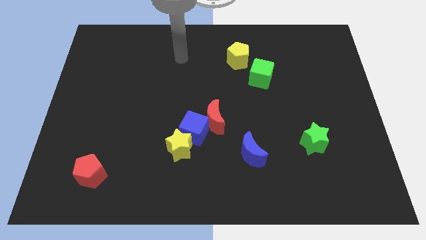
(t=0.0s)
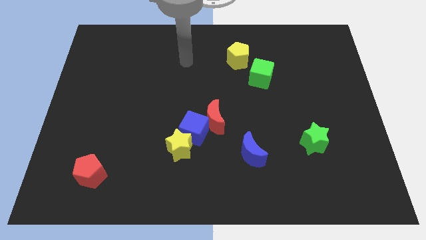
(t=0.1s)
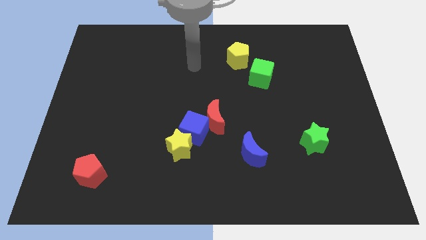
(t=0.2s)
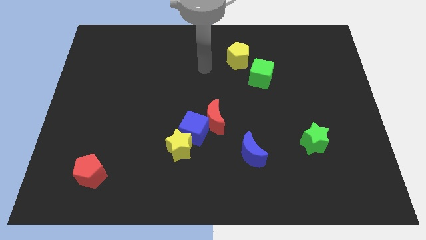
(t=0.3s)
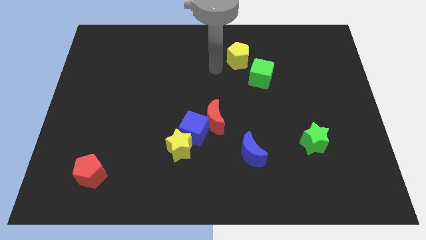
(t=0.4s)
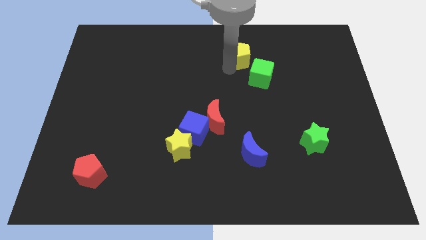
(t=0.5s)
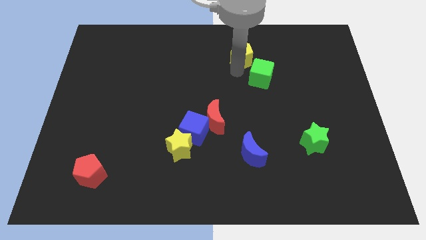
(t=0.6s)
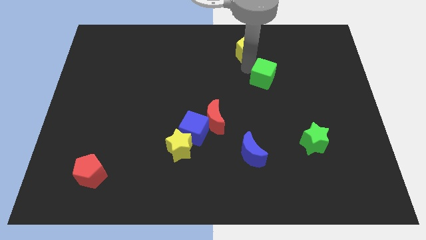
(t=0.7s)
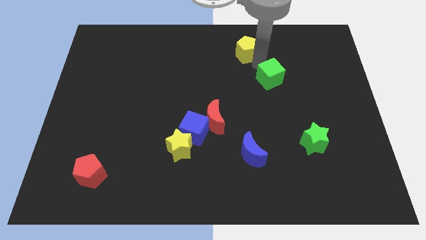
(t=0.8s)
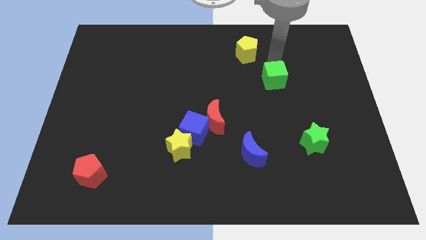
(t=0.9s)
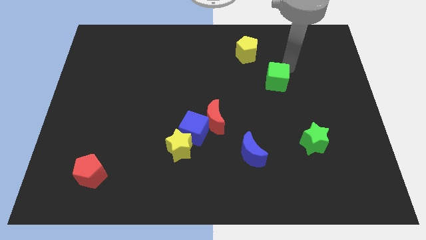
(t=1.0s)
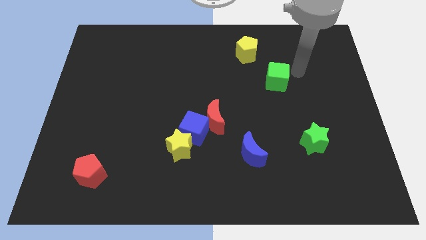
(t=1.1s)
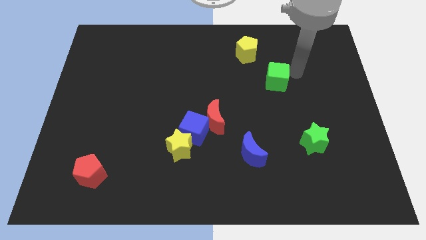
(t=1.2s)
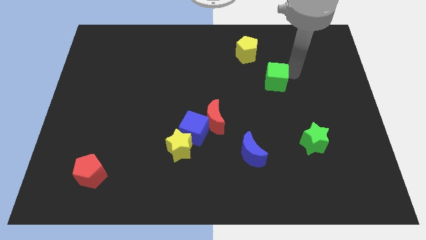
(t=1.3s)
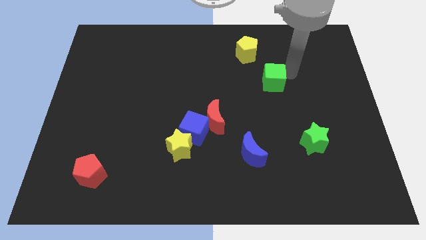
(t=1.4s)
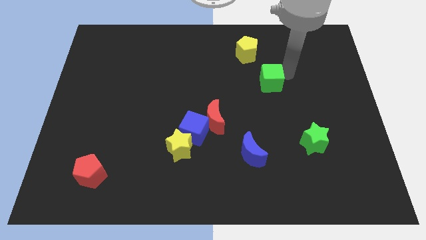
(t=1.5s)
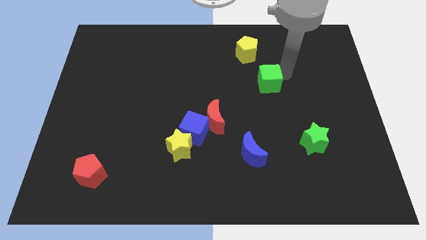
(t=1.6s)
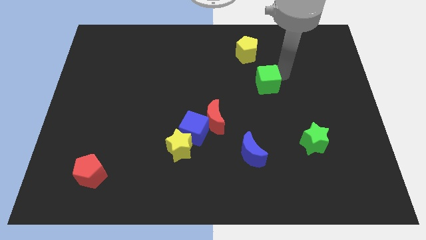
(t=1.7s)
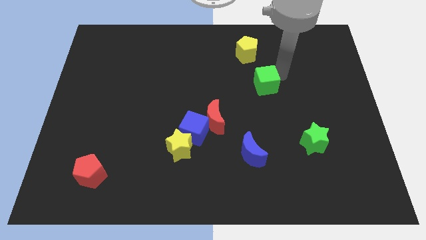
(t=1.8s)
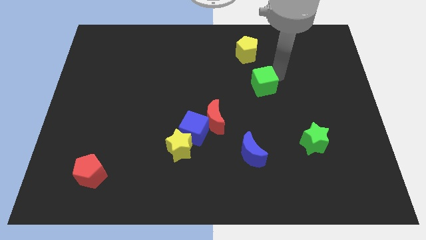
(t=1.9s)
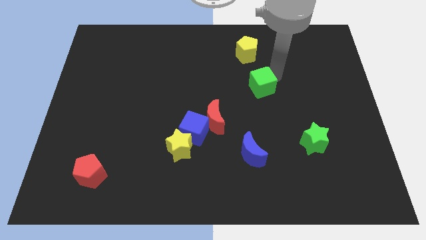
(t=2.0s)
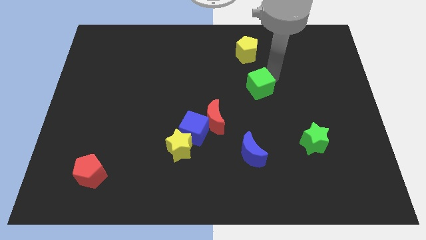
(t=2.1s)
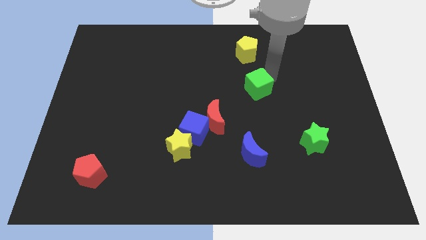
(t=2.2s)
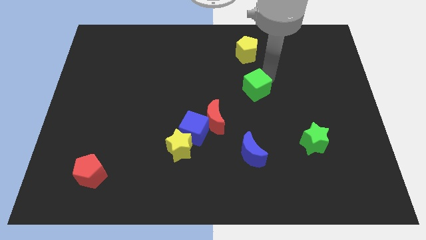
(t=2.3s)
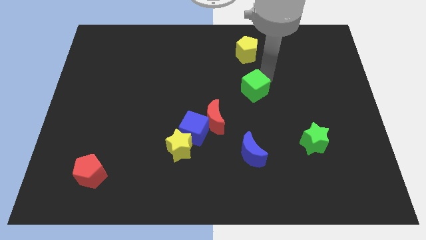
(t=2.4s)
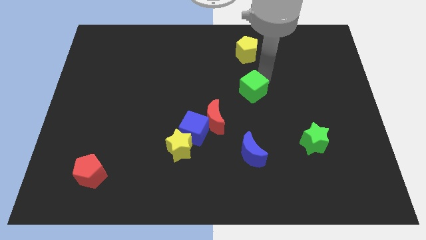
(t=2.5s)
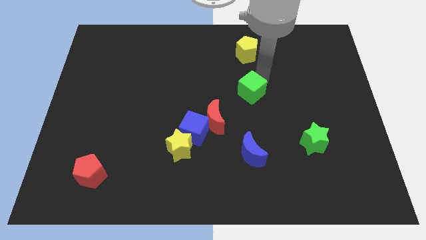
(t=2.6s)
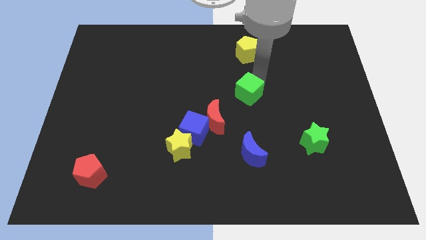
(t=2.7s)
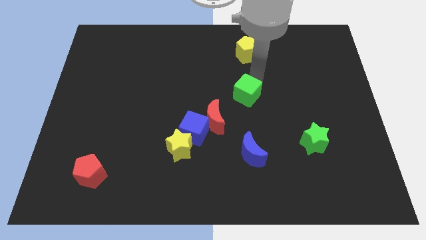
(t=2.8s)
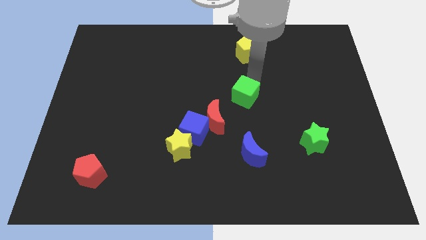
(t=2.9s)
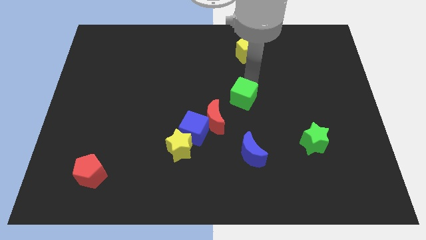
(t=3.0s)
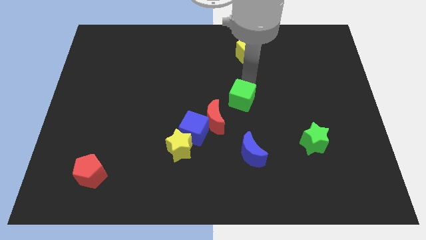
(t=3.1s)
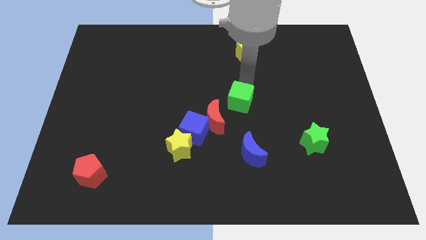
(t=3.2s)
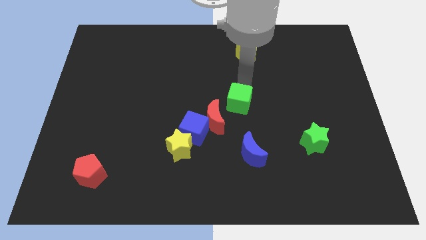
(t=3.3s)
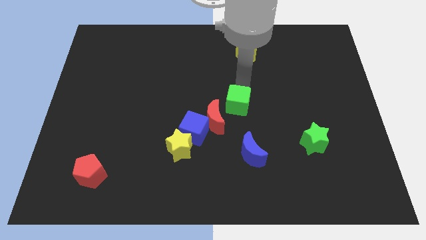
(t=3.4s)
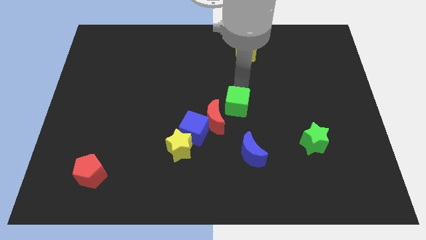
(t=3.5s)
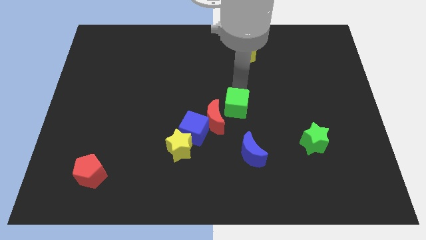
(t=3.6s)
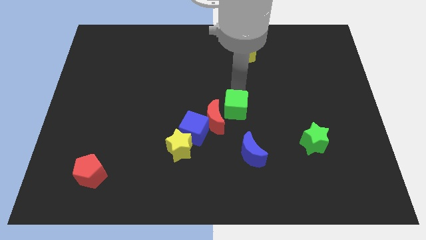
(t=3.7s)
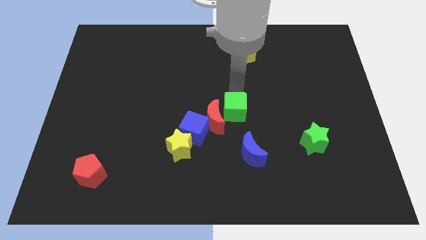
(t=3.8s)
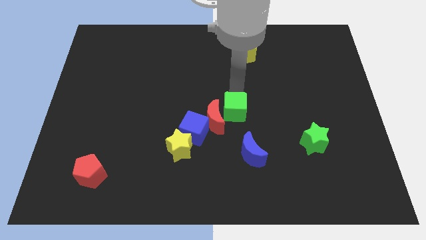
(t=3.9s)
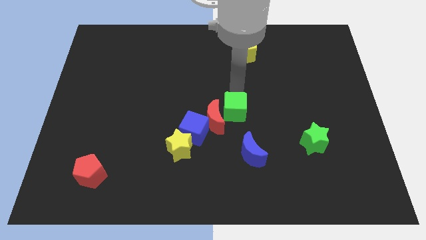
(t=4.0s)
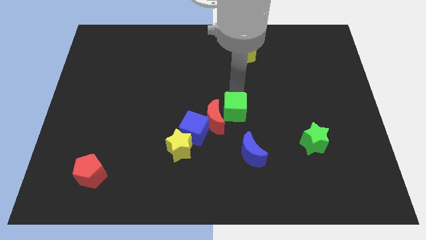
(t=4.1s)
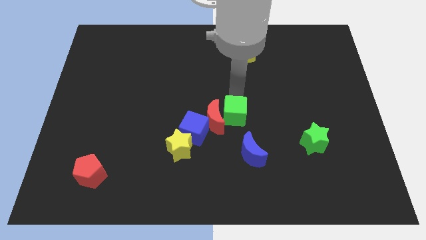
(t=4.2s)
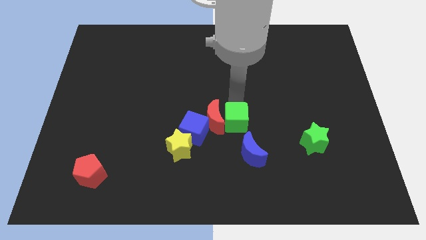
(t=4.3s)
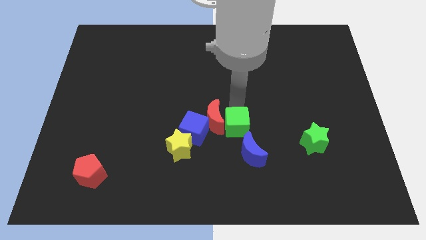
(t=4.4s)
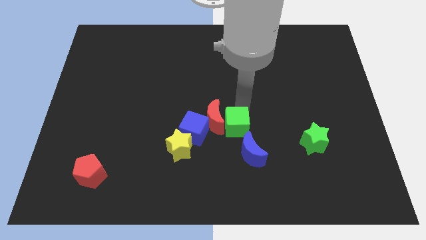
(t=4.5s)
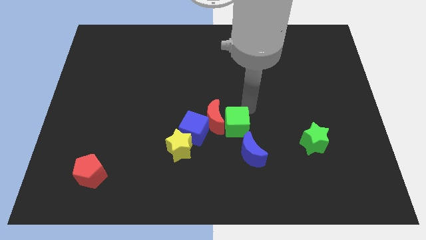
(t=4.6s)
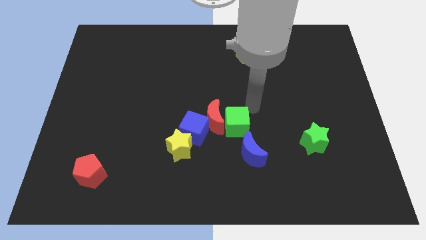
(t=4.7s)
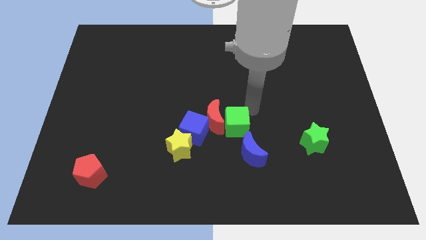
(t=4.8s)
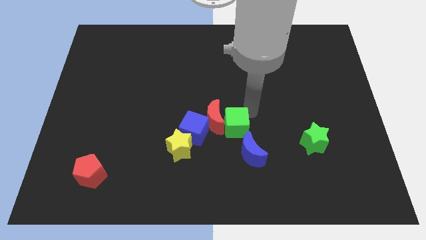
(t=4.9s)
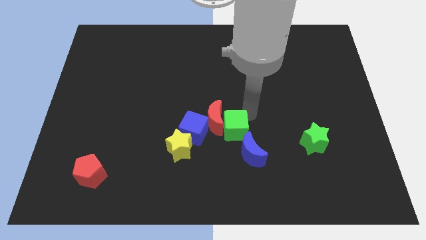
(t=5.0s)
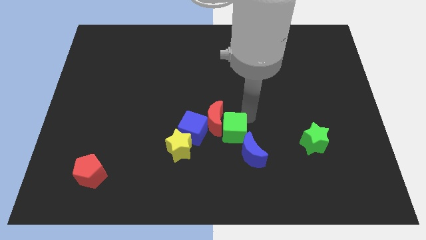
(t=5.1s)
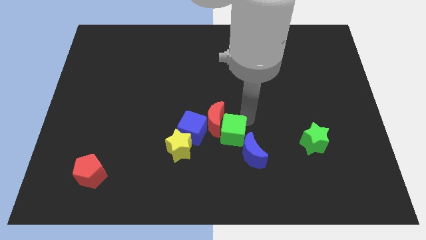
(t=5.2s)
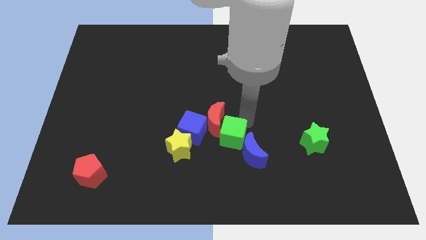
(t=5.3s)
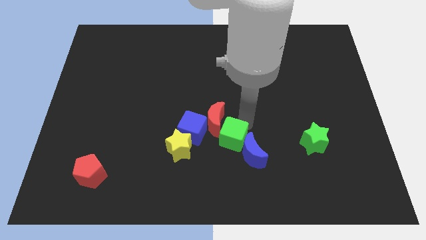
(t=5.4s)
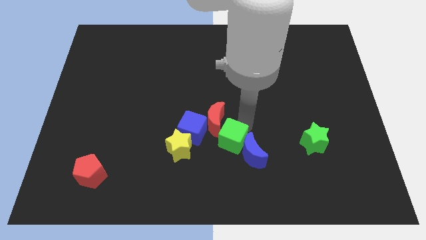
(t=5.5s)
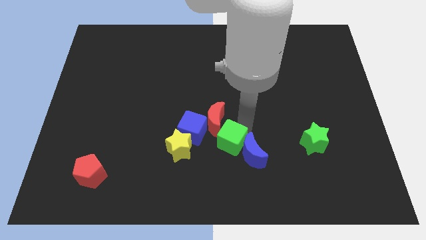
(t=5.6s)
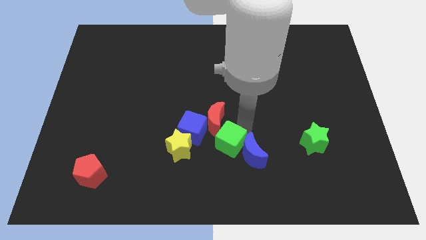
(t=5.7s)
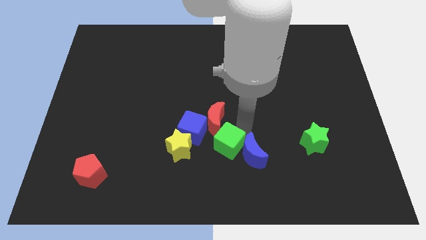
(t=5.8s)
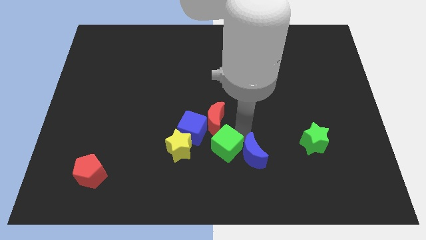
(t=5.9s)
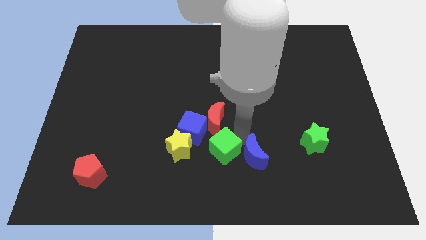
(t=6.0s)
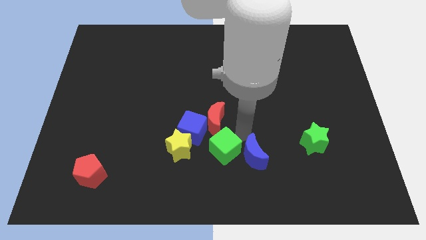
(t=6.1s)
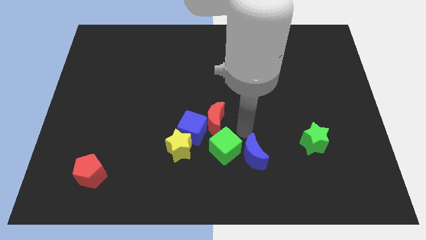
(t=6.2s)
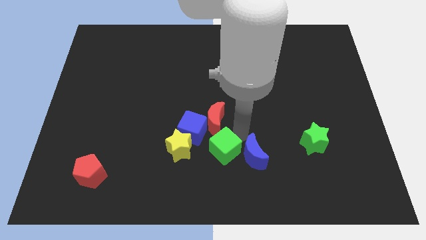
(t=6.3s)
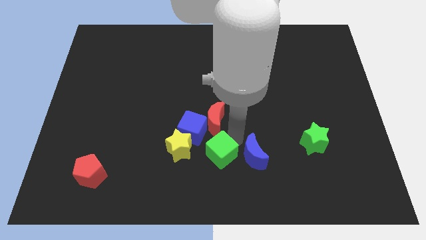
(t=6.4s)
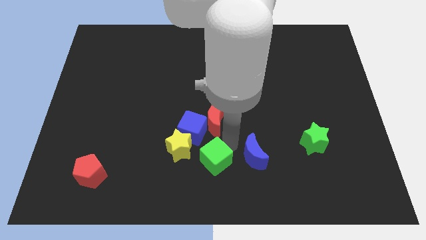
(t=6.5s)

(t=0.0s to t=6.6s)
push the green cube to the bottom right of the yellow star

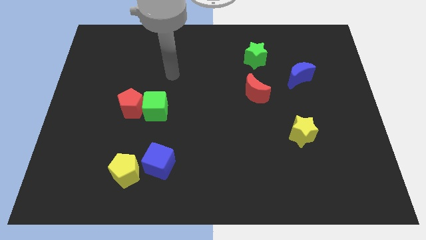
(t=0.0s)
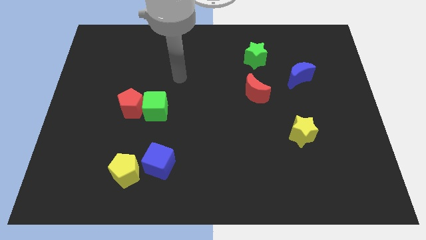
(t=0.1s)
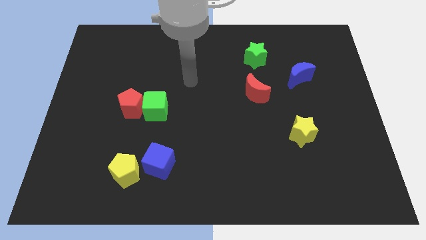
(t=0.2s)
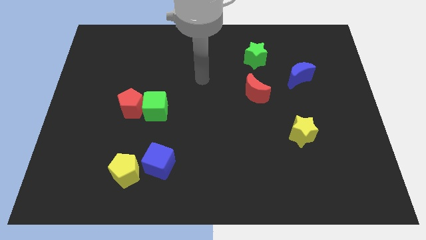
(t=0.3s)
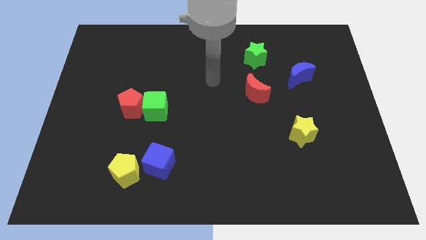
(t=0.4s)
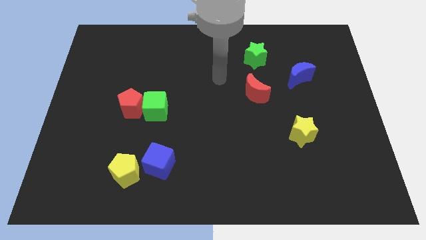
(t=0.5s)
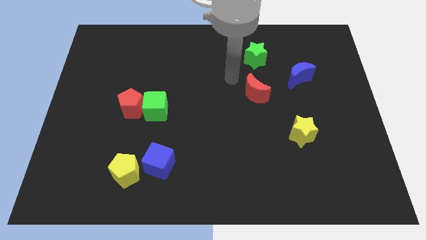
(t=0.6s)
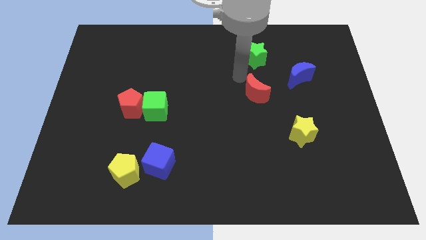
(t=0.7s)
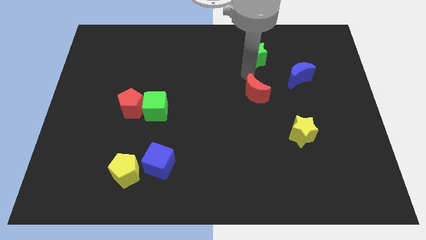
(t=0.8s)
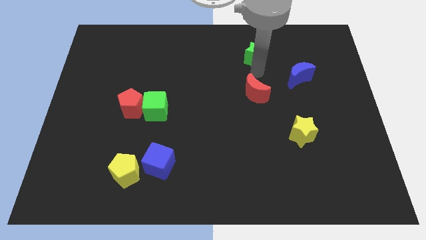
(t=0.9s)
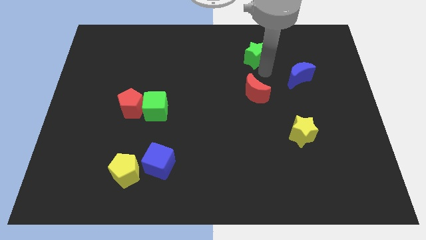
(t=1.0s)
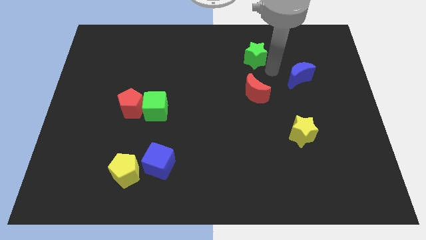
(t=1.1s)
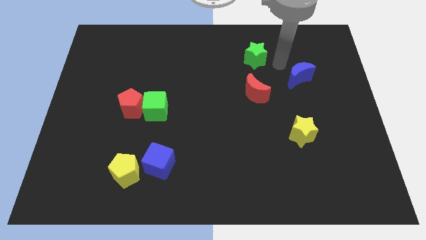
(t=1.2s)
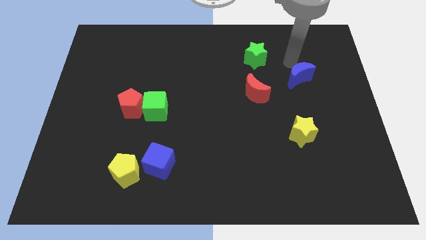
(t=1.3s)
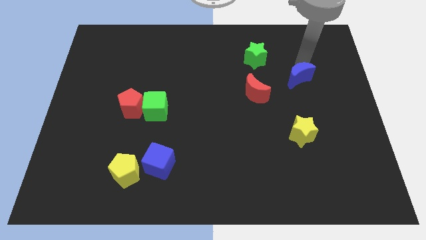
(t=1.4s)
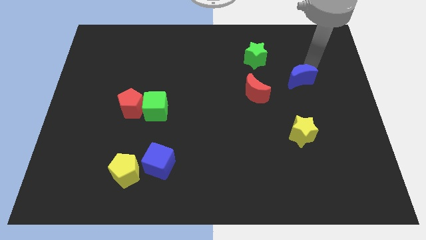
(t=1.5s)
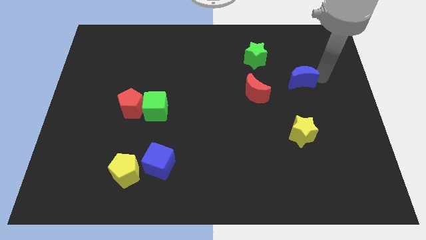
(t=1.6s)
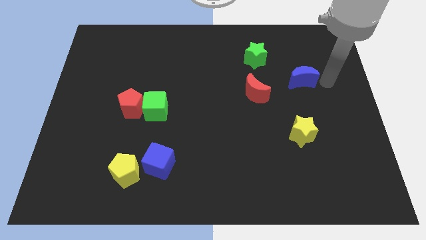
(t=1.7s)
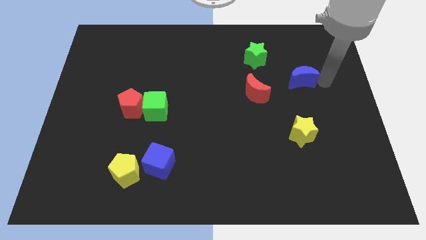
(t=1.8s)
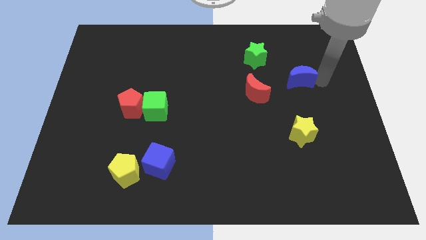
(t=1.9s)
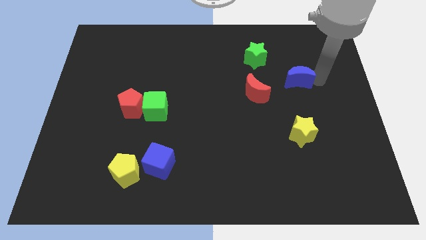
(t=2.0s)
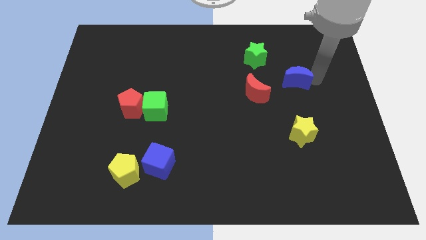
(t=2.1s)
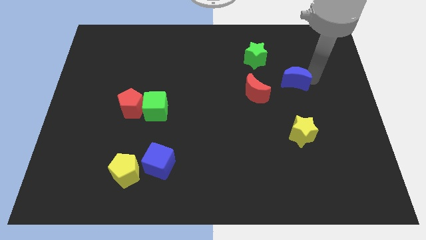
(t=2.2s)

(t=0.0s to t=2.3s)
slide the blue moon diagonally up and to the right of the red moon
